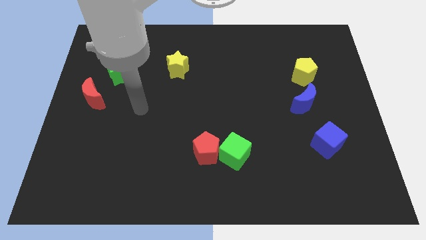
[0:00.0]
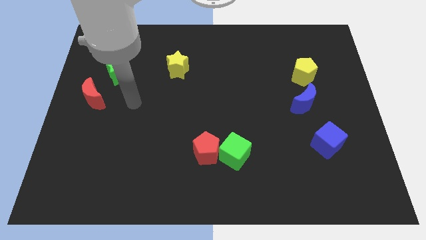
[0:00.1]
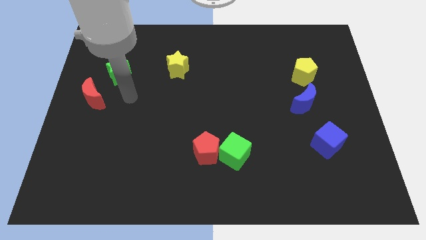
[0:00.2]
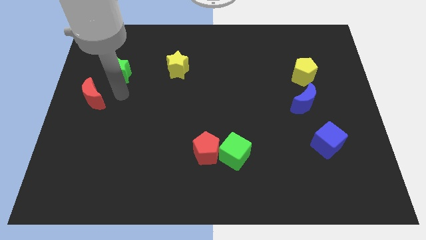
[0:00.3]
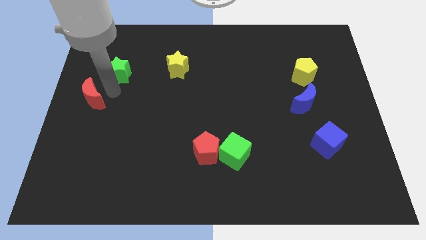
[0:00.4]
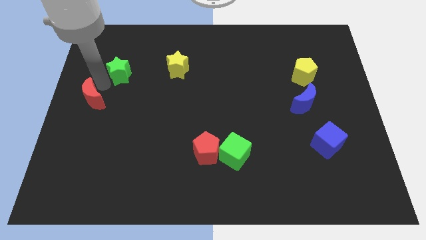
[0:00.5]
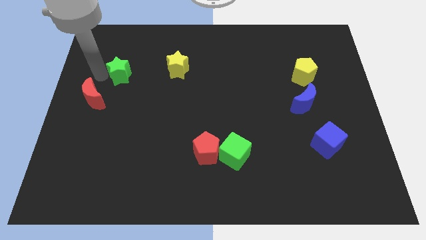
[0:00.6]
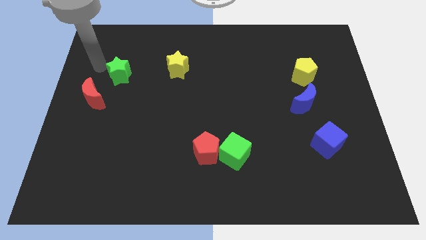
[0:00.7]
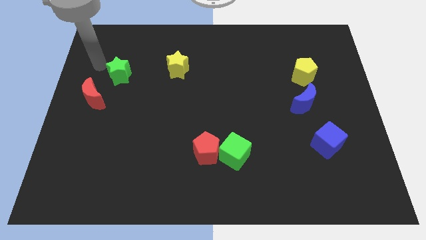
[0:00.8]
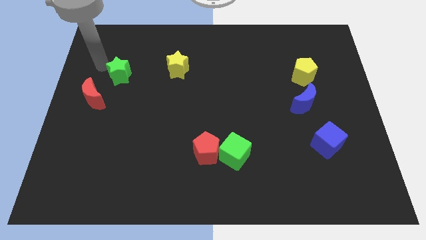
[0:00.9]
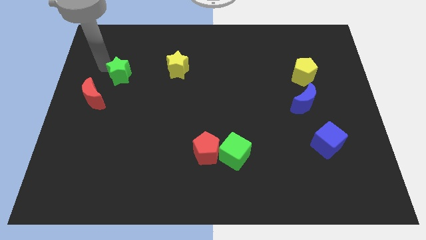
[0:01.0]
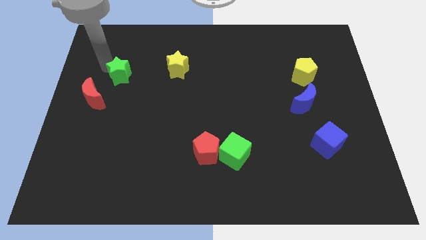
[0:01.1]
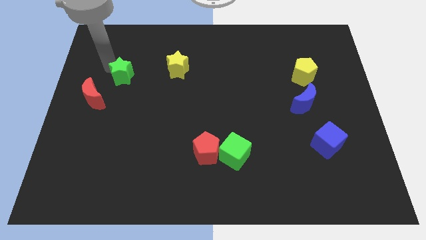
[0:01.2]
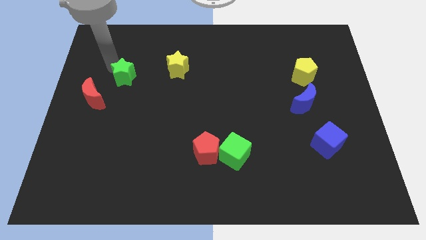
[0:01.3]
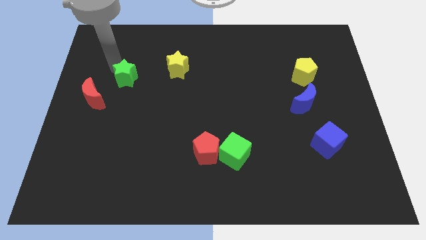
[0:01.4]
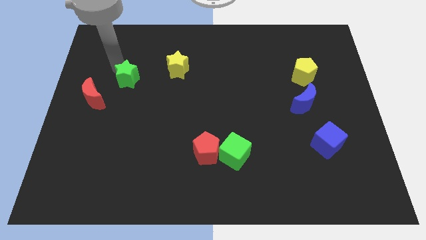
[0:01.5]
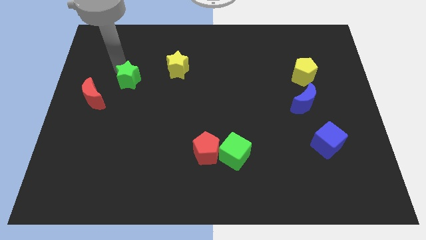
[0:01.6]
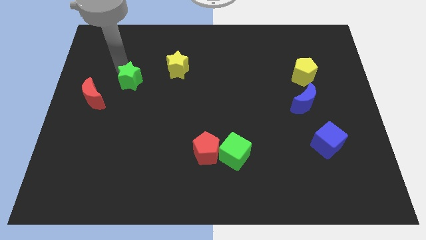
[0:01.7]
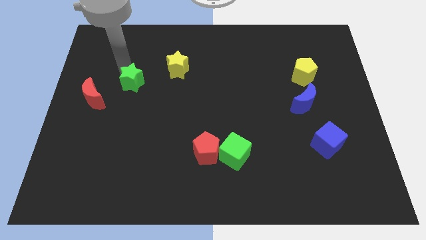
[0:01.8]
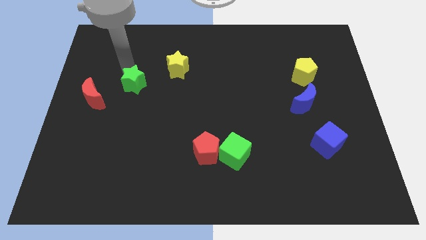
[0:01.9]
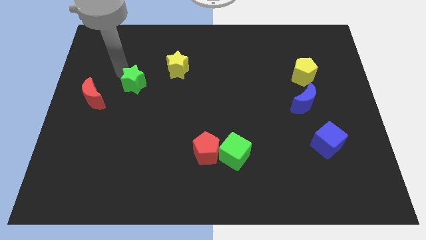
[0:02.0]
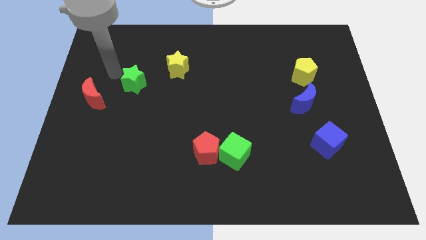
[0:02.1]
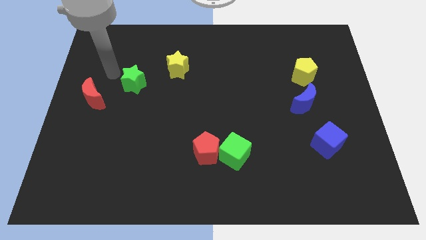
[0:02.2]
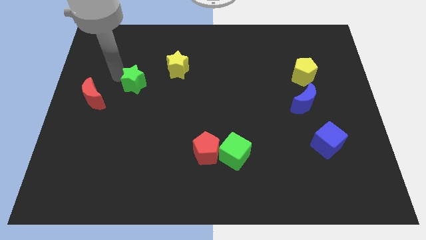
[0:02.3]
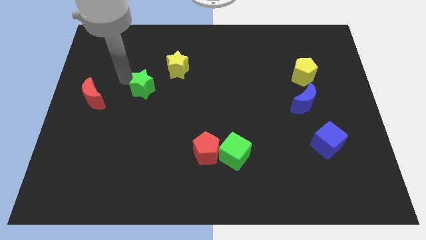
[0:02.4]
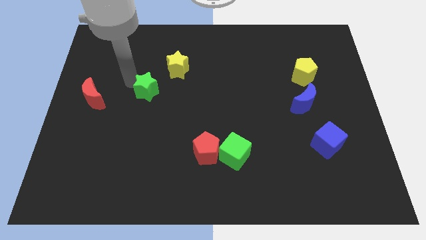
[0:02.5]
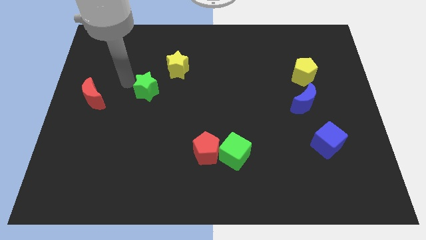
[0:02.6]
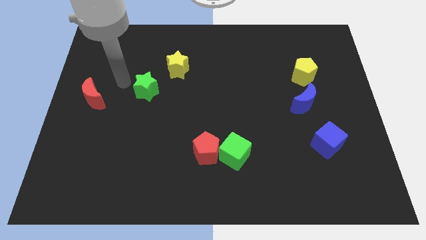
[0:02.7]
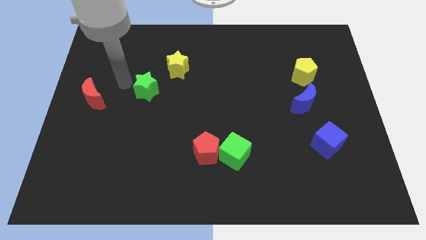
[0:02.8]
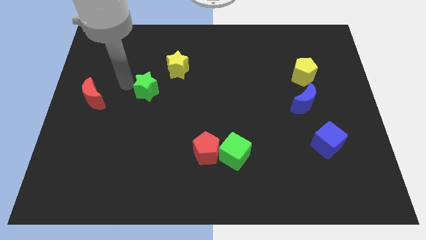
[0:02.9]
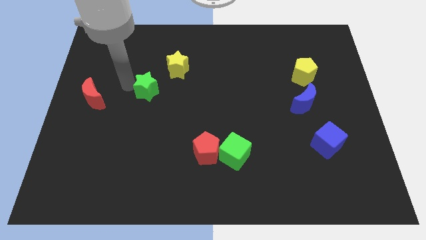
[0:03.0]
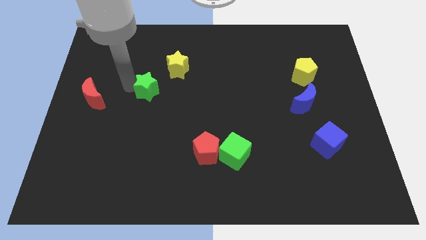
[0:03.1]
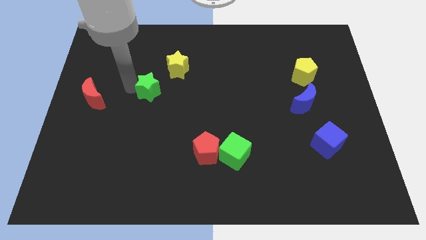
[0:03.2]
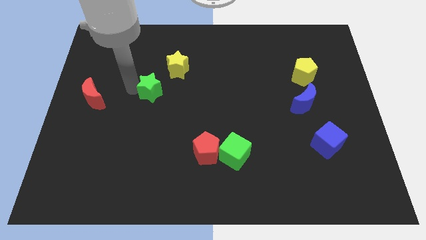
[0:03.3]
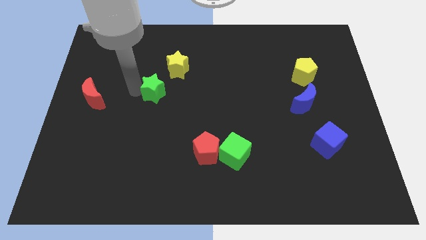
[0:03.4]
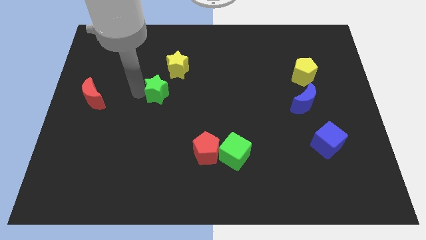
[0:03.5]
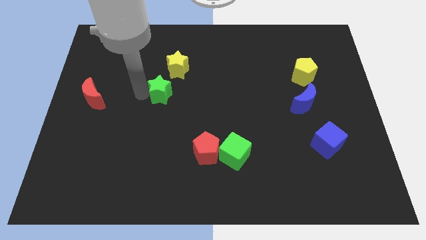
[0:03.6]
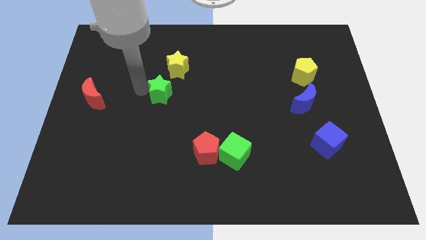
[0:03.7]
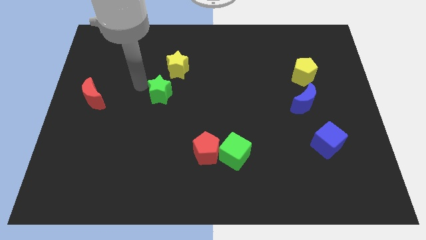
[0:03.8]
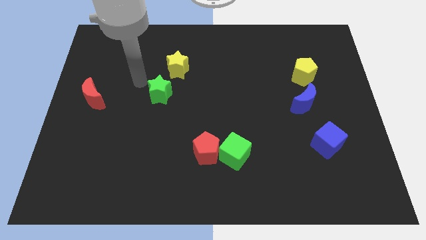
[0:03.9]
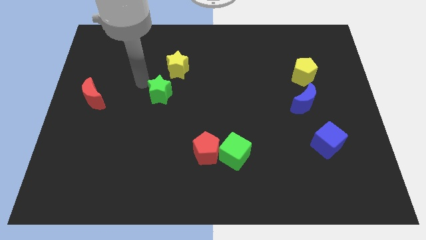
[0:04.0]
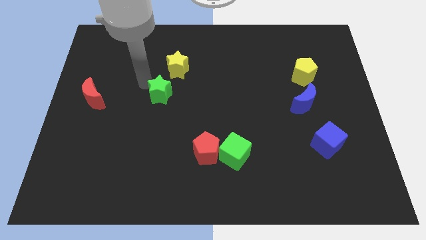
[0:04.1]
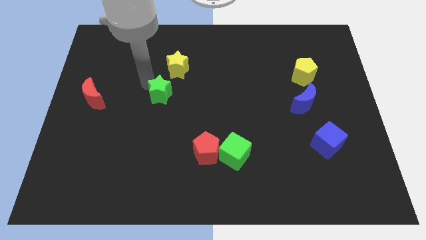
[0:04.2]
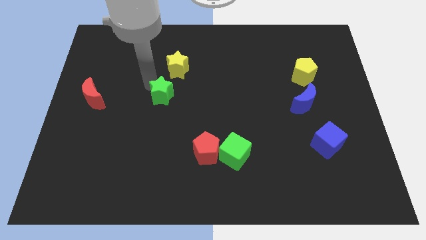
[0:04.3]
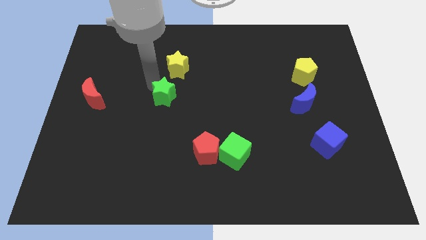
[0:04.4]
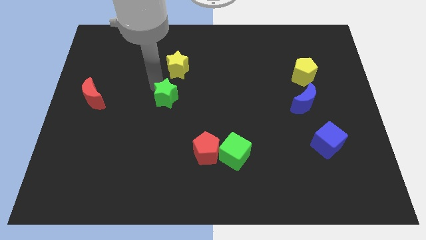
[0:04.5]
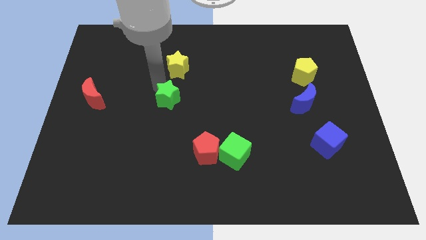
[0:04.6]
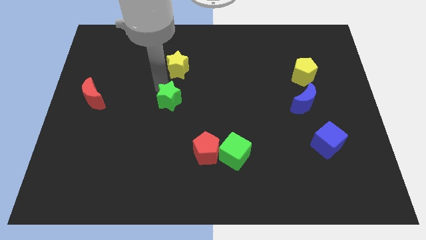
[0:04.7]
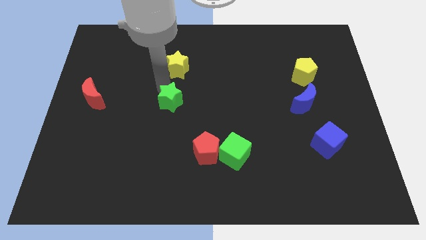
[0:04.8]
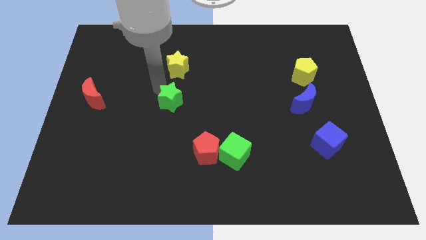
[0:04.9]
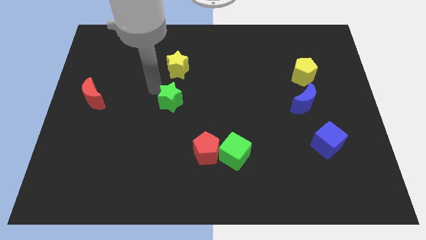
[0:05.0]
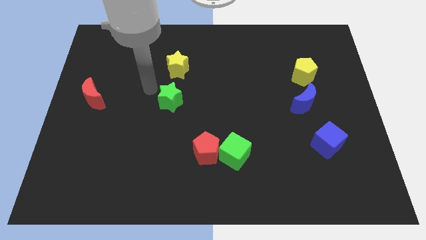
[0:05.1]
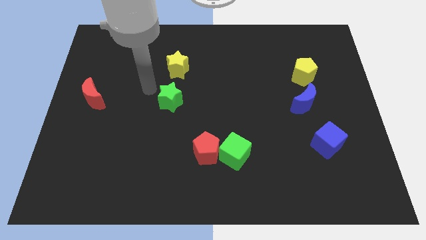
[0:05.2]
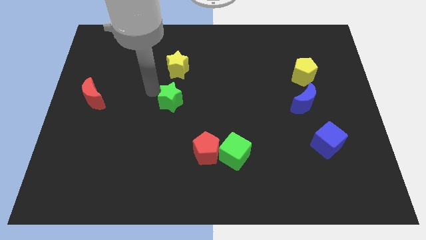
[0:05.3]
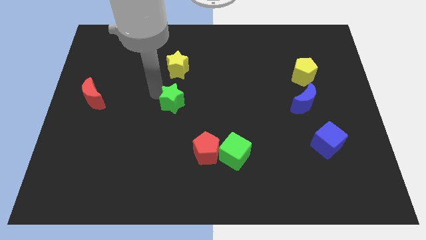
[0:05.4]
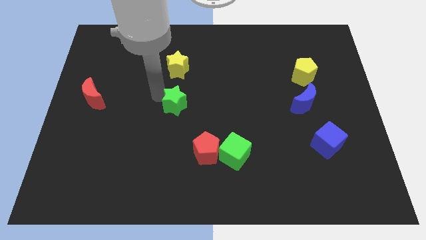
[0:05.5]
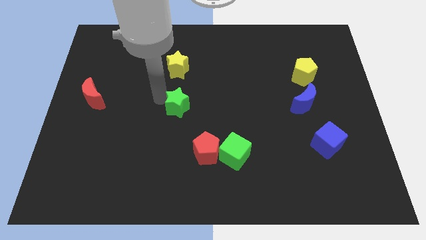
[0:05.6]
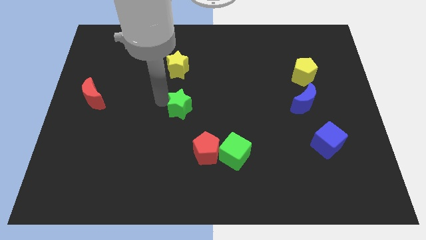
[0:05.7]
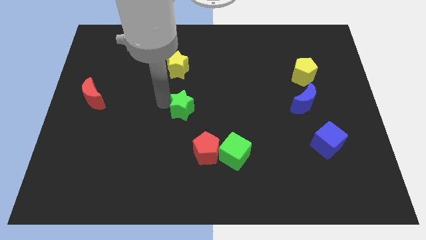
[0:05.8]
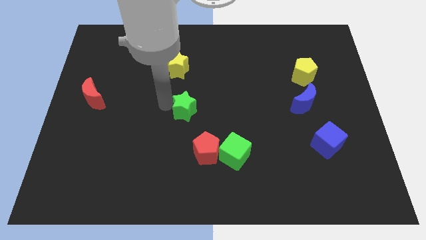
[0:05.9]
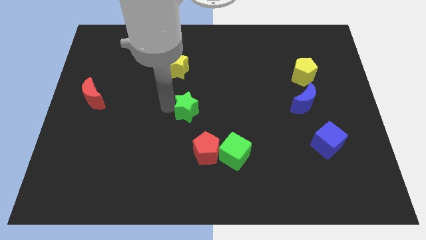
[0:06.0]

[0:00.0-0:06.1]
put the green star to the top side of the red pentagon

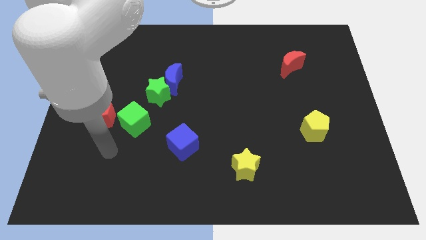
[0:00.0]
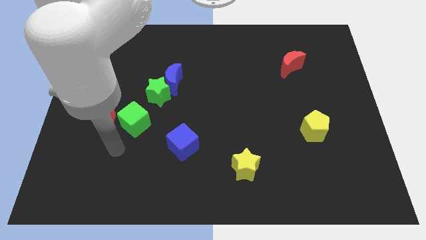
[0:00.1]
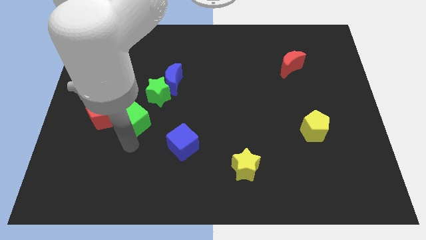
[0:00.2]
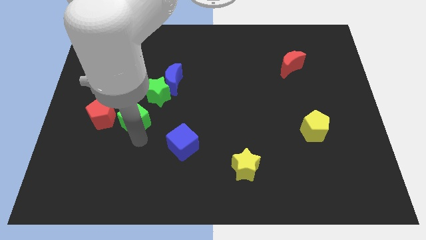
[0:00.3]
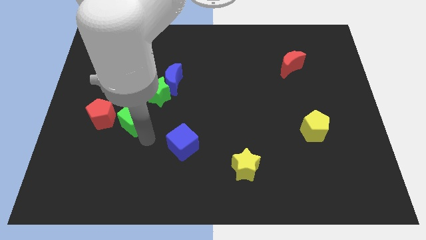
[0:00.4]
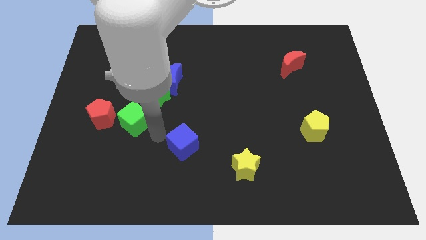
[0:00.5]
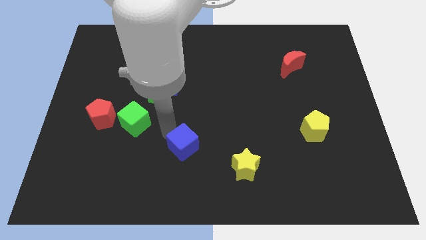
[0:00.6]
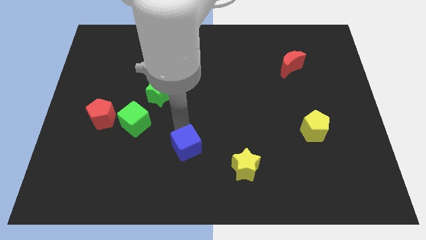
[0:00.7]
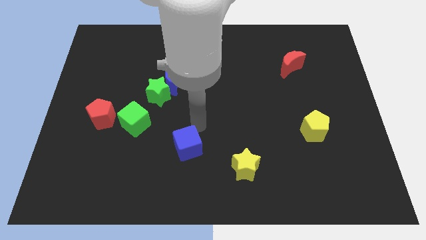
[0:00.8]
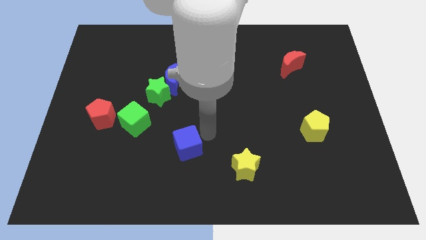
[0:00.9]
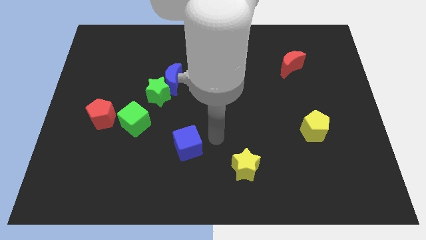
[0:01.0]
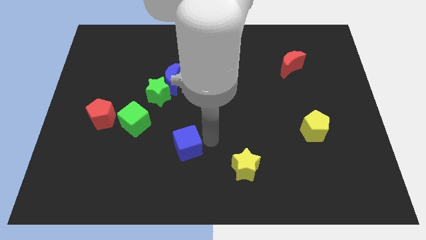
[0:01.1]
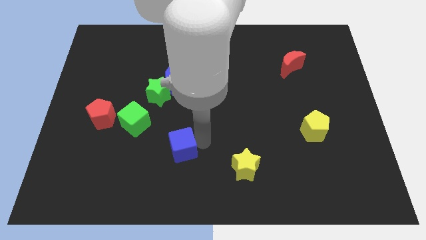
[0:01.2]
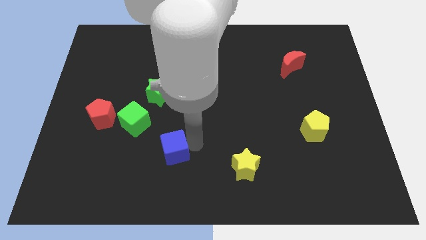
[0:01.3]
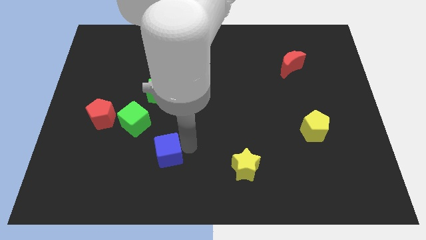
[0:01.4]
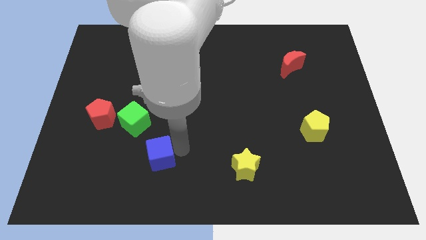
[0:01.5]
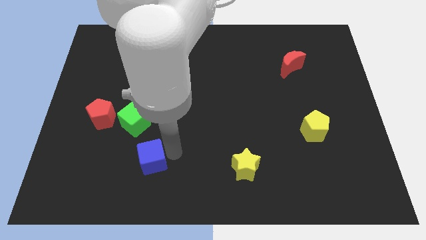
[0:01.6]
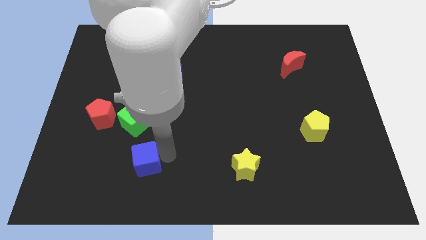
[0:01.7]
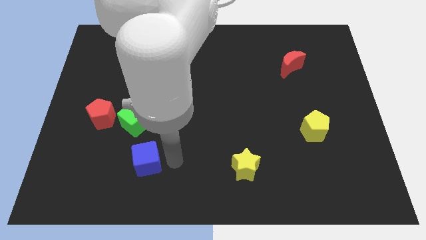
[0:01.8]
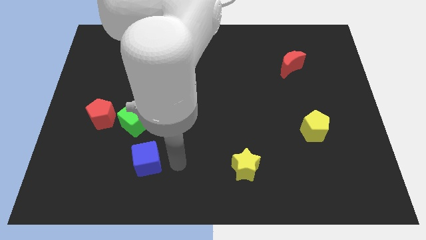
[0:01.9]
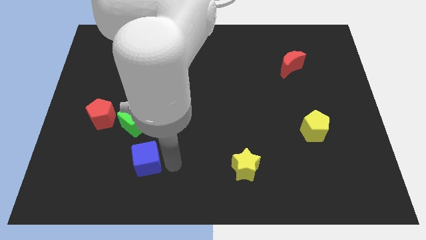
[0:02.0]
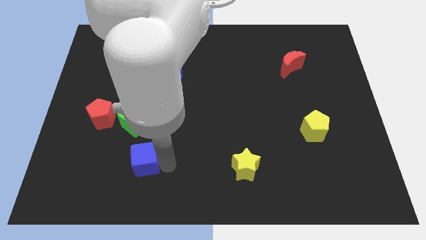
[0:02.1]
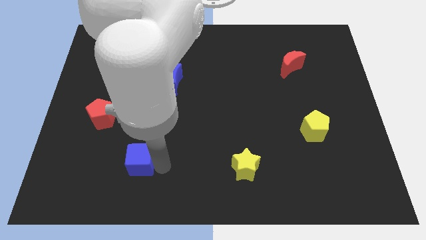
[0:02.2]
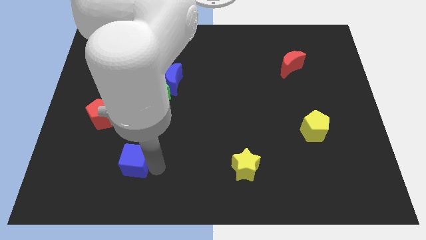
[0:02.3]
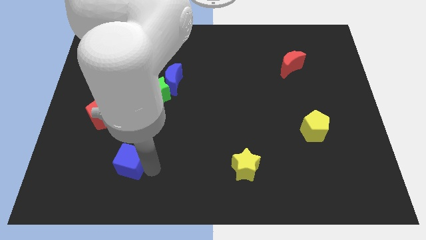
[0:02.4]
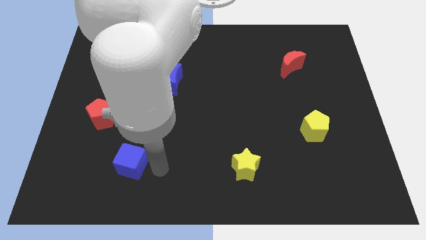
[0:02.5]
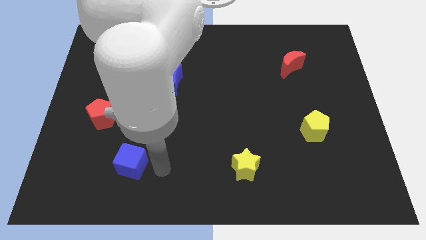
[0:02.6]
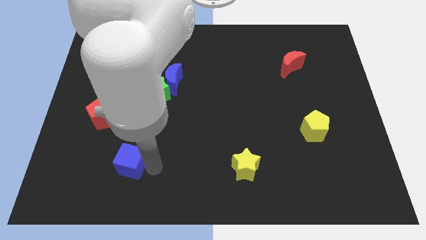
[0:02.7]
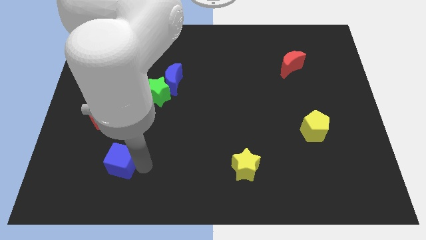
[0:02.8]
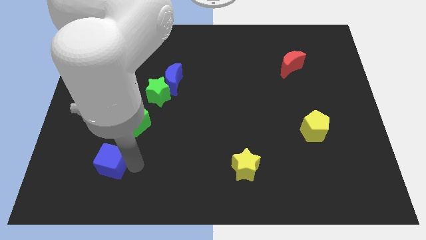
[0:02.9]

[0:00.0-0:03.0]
move the blue cube to the bottom of the red pentagon
